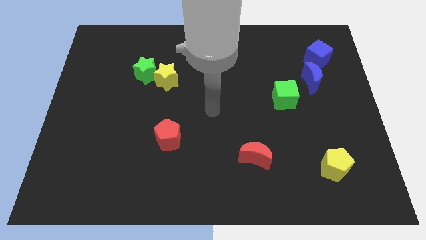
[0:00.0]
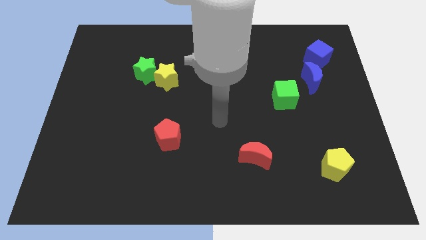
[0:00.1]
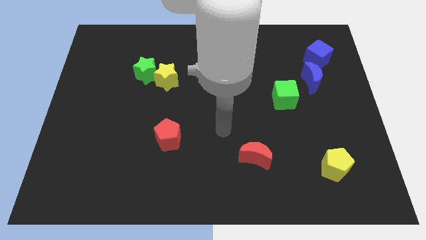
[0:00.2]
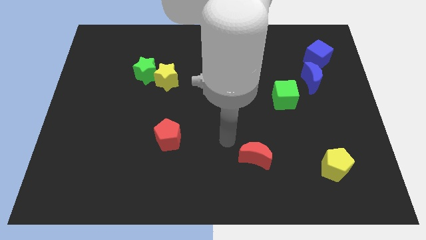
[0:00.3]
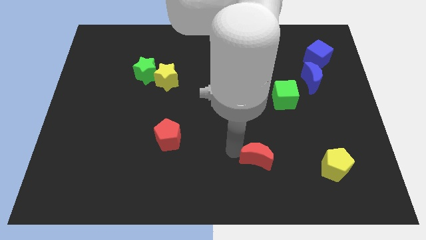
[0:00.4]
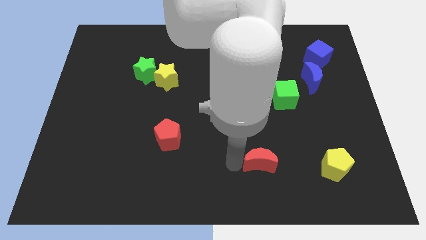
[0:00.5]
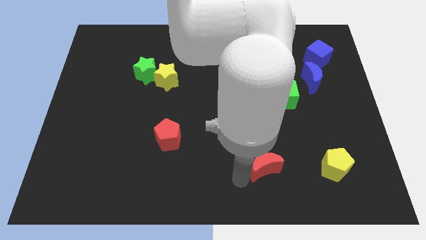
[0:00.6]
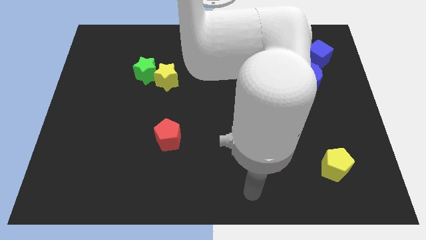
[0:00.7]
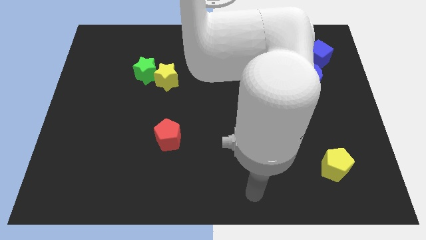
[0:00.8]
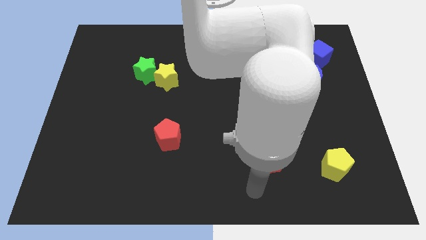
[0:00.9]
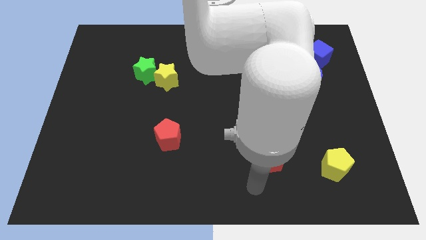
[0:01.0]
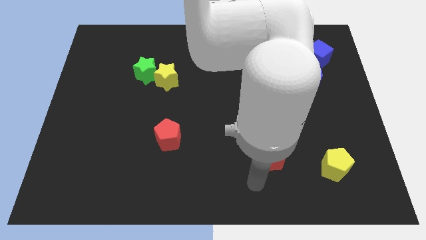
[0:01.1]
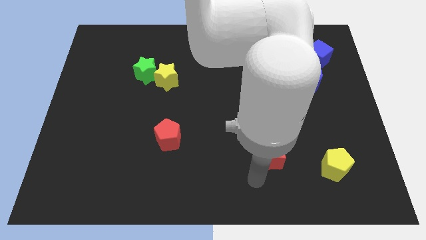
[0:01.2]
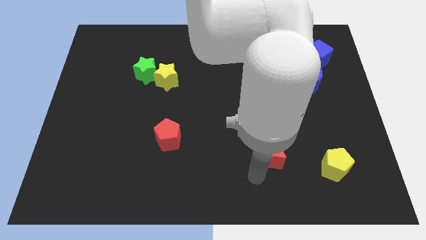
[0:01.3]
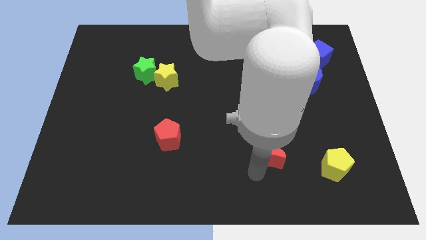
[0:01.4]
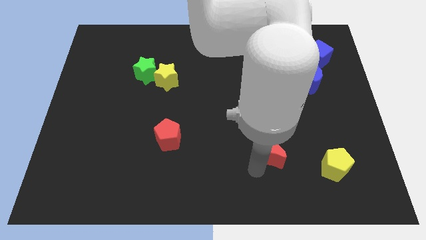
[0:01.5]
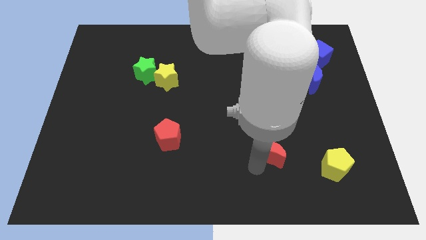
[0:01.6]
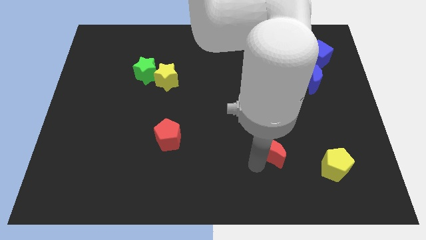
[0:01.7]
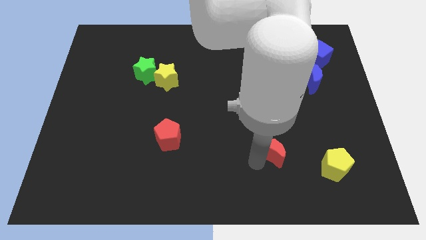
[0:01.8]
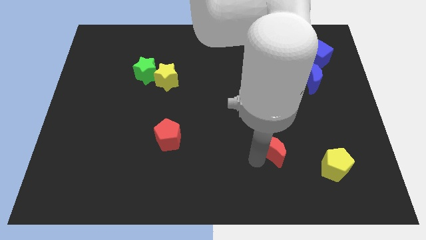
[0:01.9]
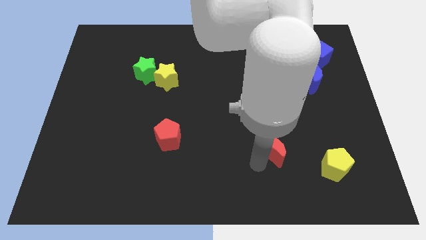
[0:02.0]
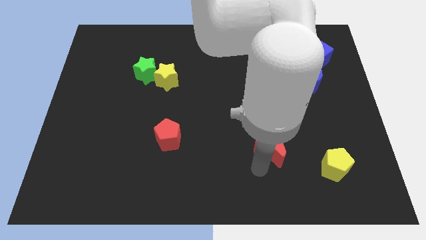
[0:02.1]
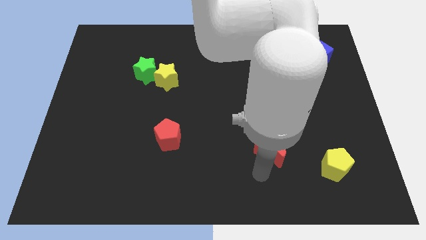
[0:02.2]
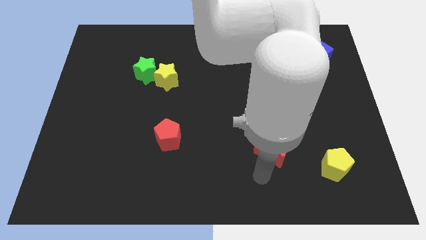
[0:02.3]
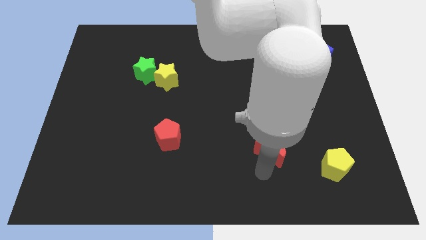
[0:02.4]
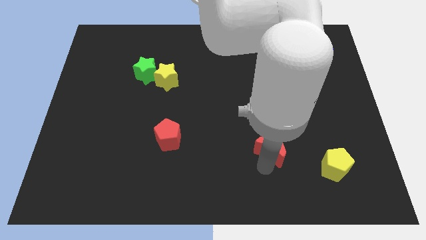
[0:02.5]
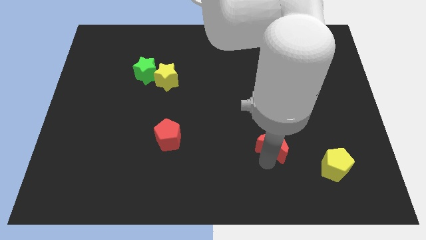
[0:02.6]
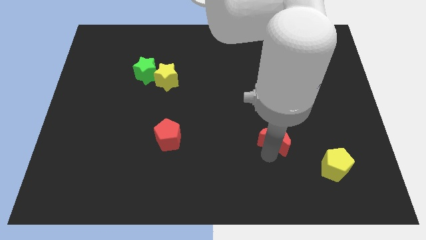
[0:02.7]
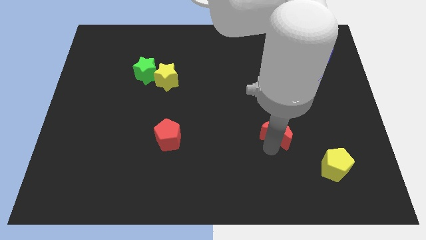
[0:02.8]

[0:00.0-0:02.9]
push the red moon a bit upwards and to the right diagonally

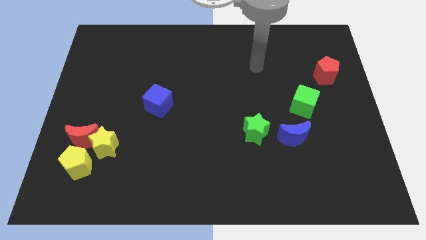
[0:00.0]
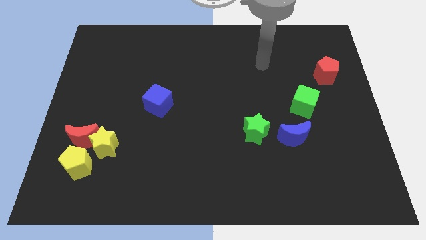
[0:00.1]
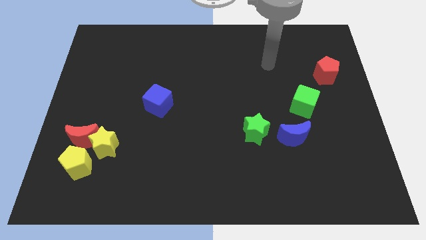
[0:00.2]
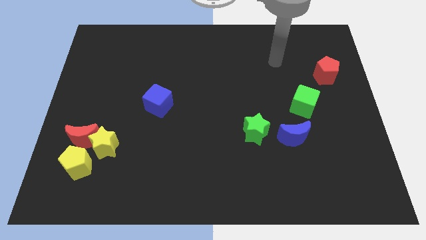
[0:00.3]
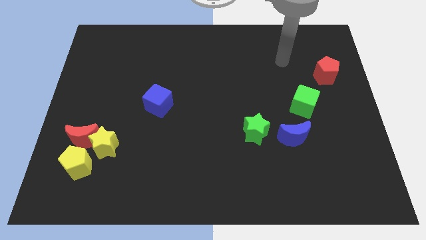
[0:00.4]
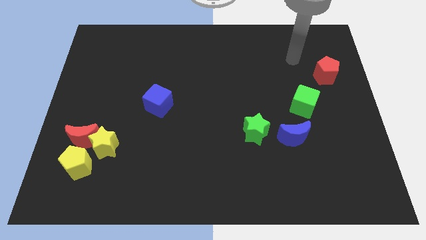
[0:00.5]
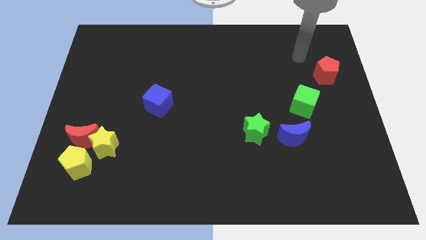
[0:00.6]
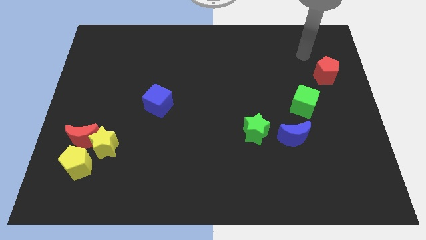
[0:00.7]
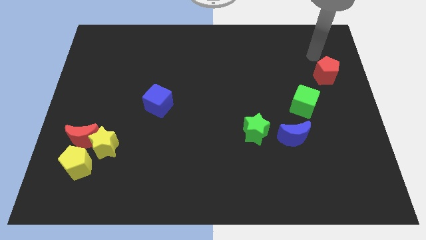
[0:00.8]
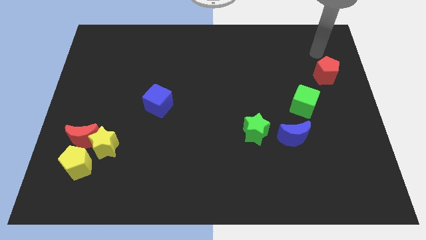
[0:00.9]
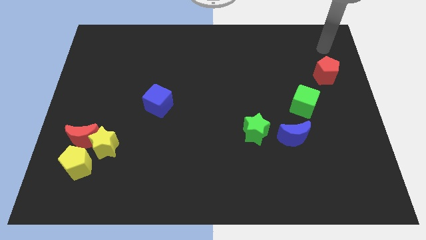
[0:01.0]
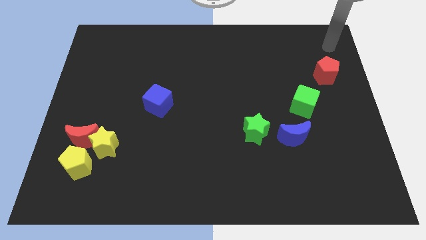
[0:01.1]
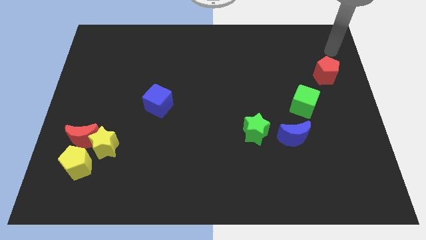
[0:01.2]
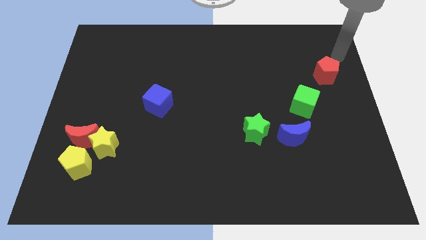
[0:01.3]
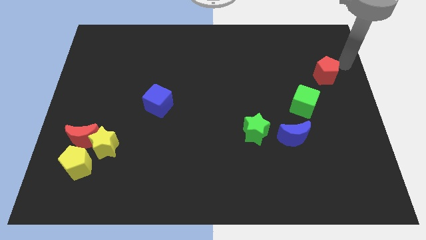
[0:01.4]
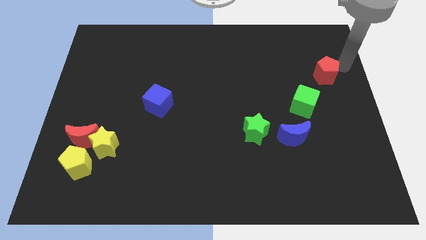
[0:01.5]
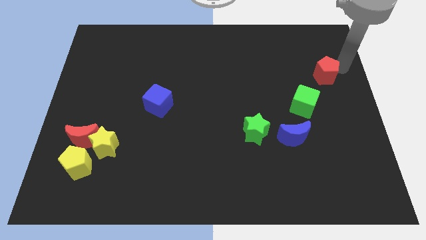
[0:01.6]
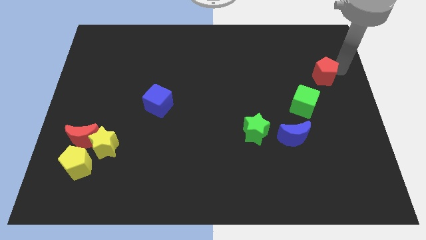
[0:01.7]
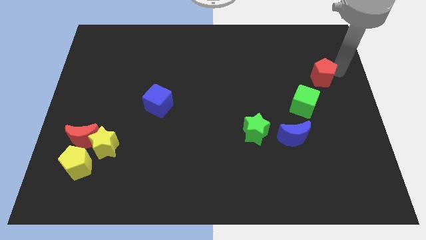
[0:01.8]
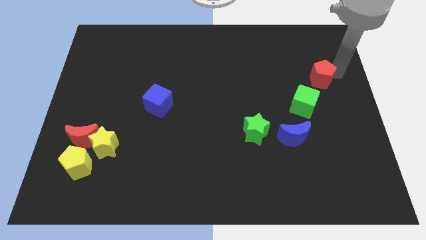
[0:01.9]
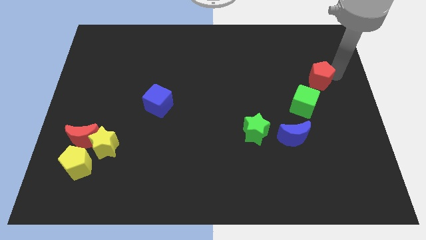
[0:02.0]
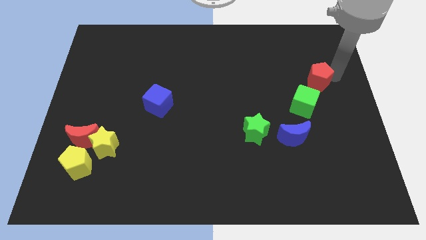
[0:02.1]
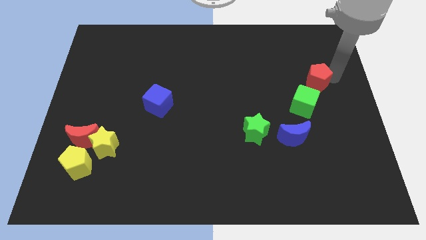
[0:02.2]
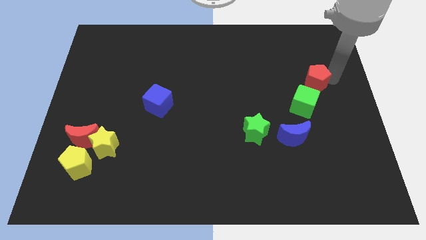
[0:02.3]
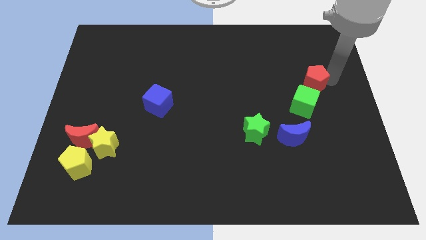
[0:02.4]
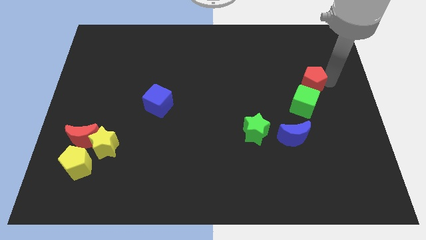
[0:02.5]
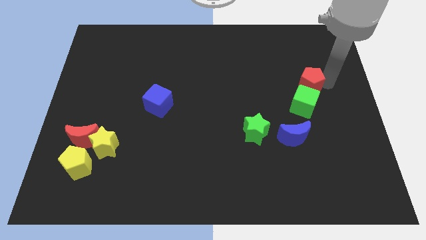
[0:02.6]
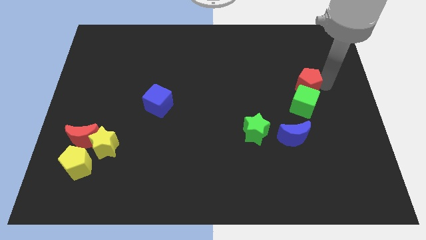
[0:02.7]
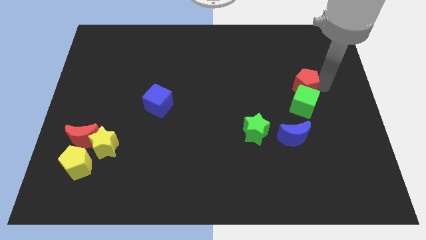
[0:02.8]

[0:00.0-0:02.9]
move the red pentagon downwards and left diagonally a bit

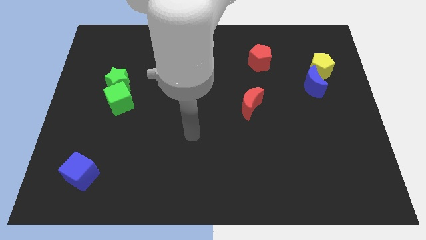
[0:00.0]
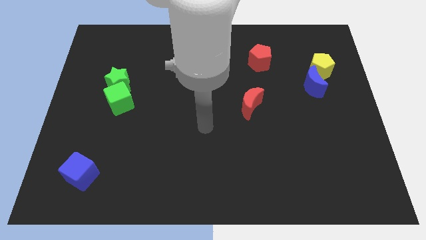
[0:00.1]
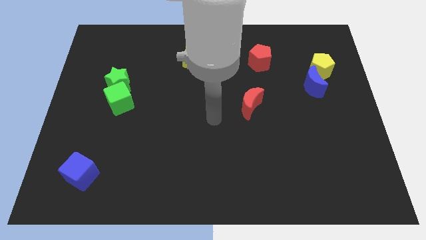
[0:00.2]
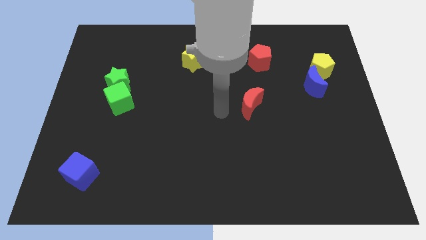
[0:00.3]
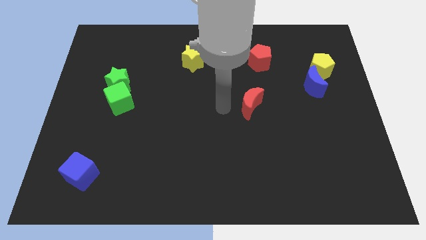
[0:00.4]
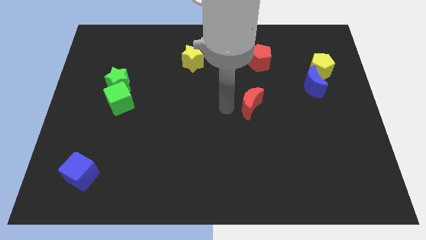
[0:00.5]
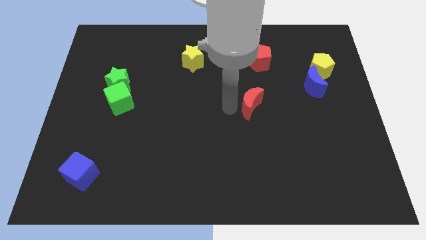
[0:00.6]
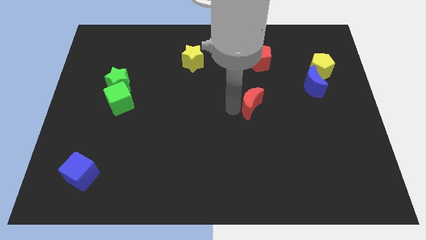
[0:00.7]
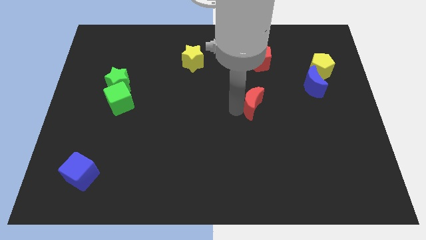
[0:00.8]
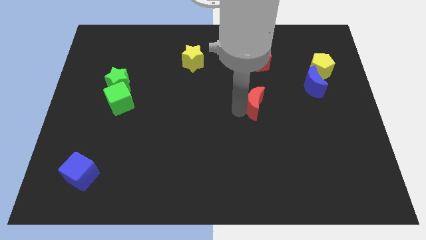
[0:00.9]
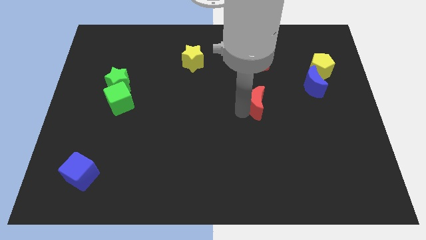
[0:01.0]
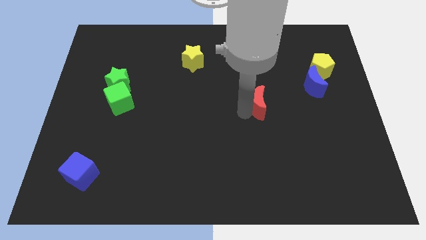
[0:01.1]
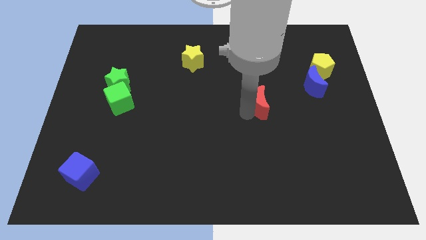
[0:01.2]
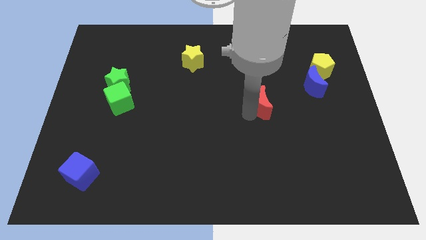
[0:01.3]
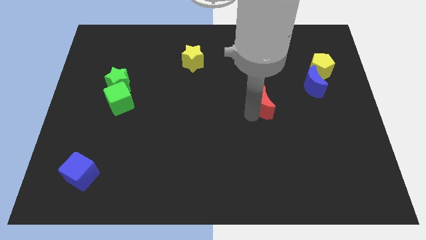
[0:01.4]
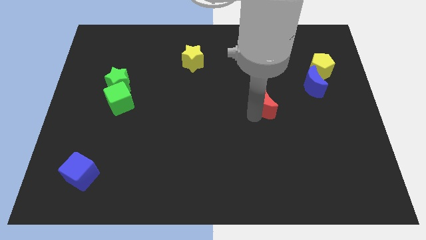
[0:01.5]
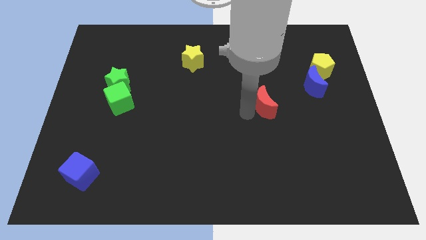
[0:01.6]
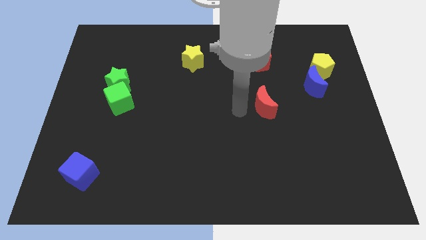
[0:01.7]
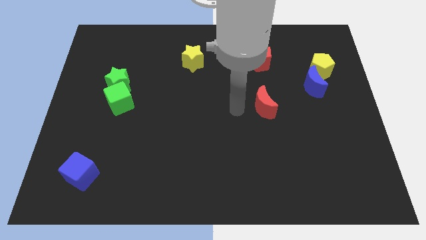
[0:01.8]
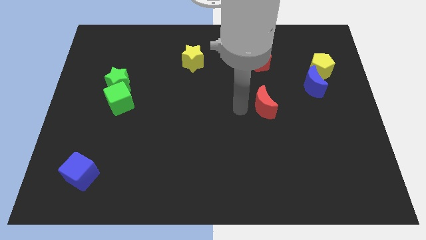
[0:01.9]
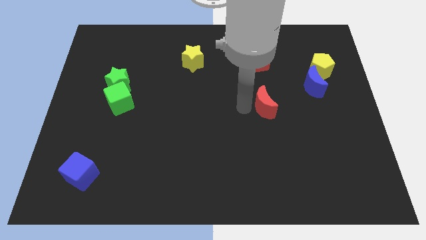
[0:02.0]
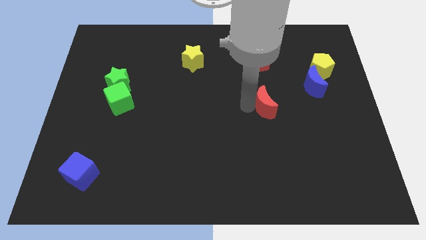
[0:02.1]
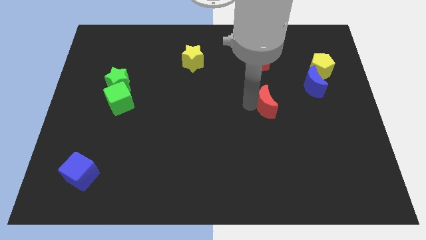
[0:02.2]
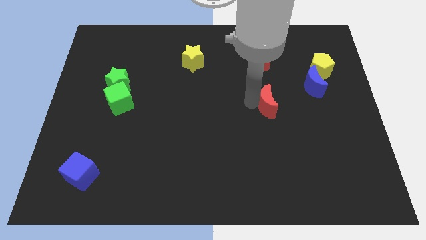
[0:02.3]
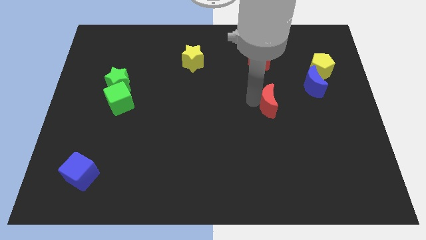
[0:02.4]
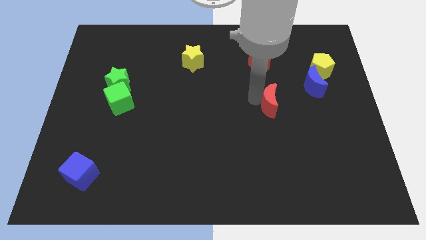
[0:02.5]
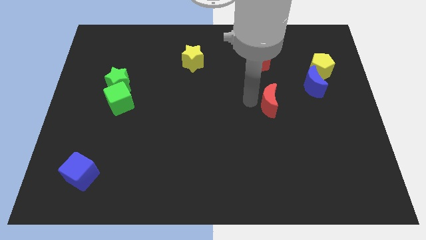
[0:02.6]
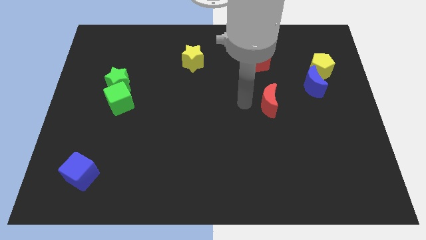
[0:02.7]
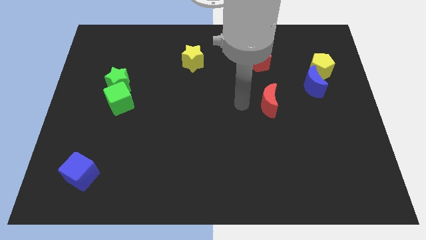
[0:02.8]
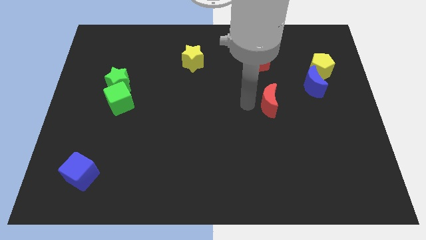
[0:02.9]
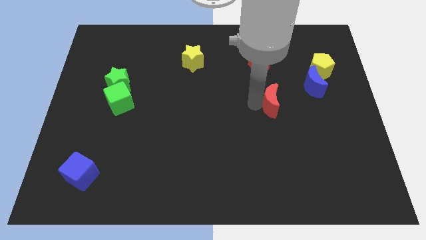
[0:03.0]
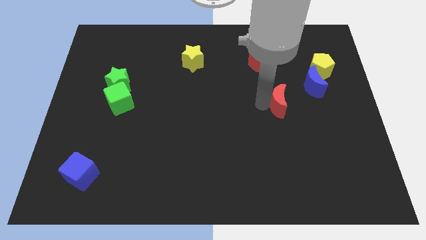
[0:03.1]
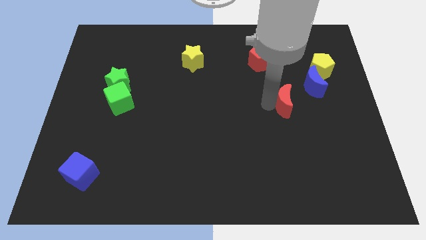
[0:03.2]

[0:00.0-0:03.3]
push the red moon somewhat to the right
